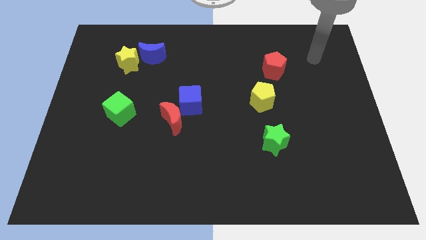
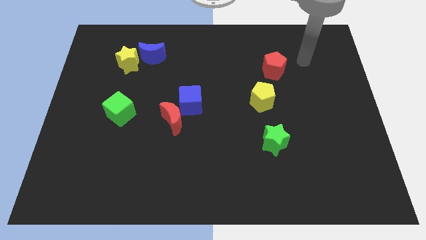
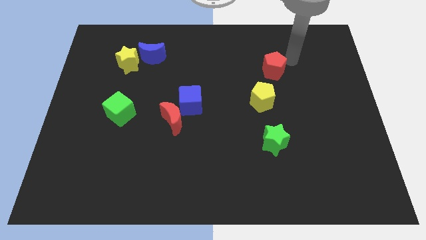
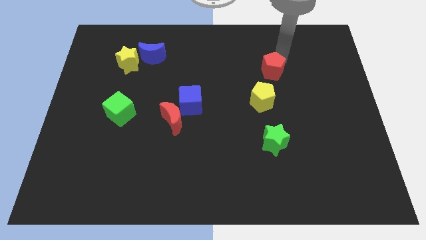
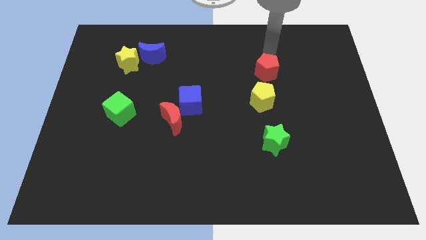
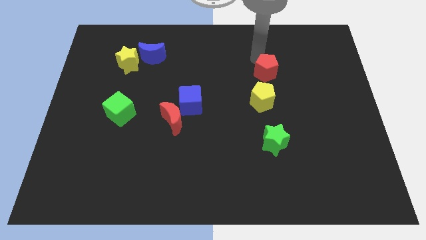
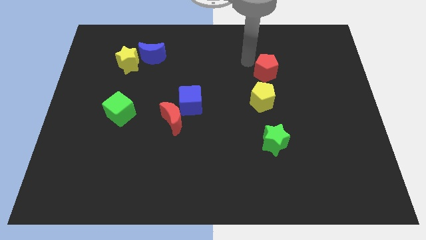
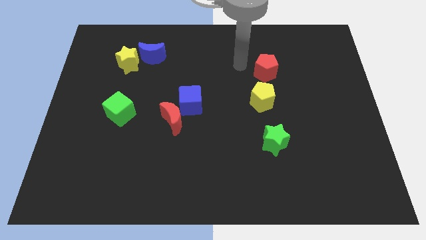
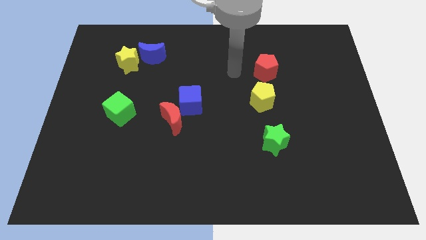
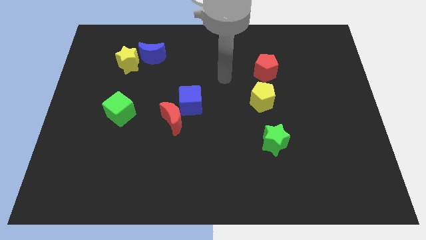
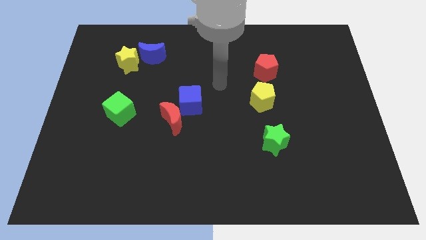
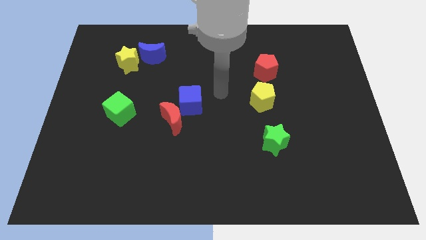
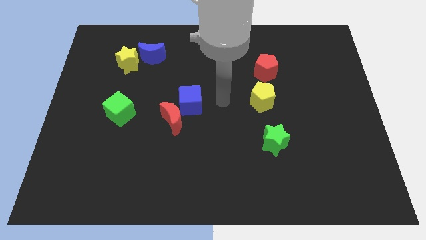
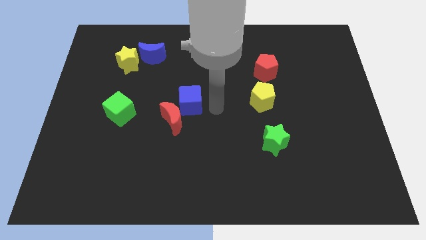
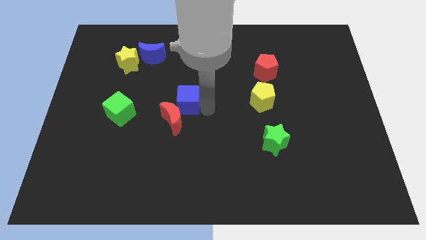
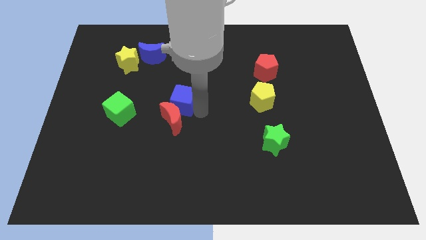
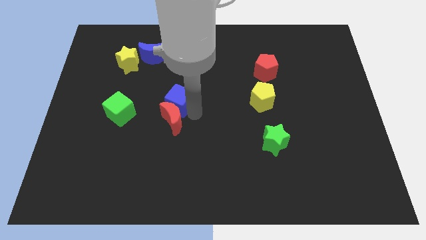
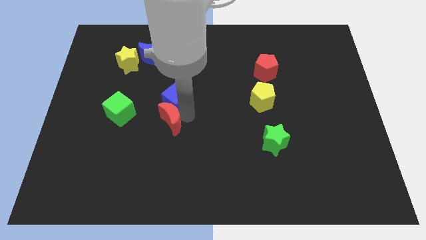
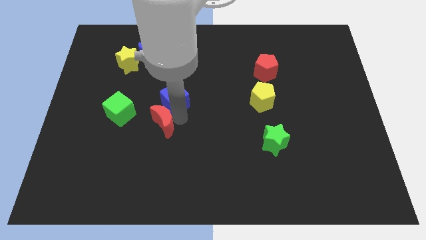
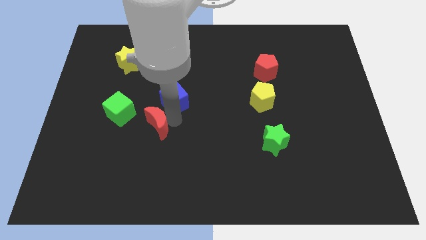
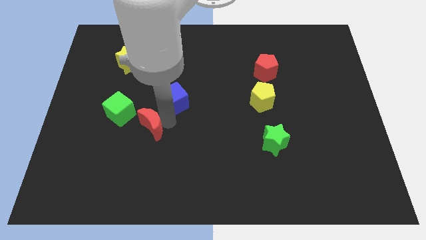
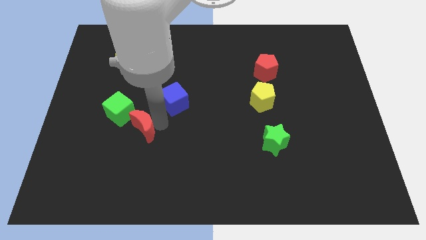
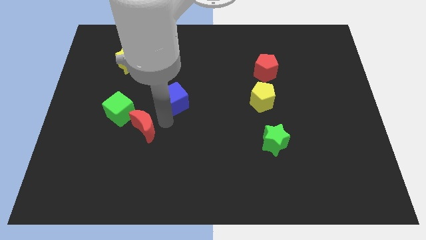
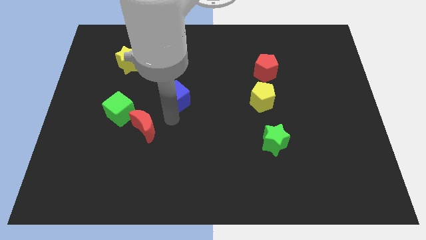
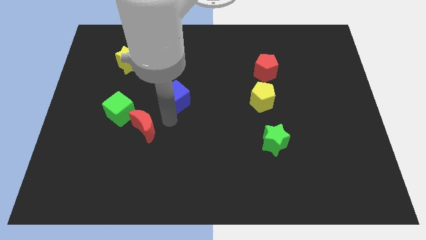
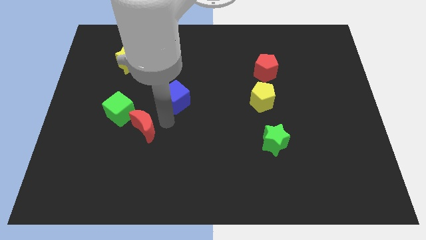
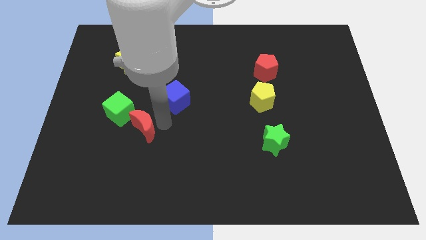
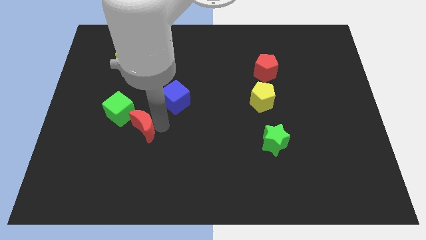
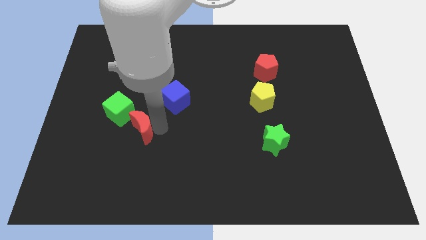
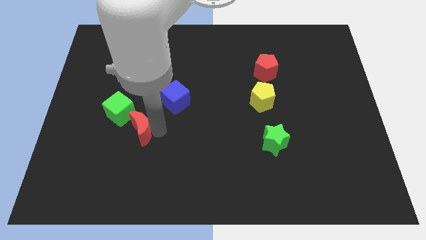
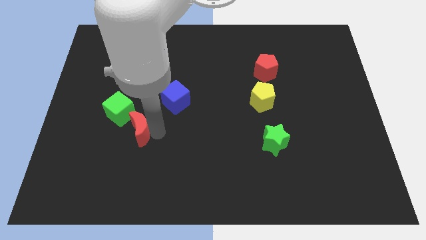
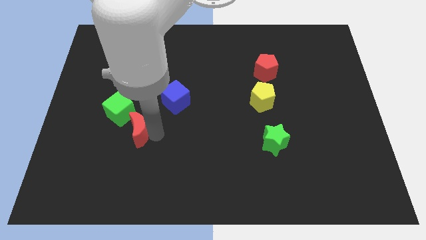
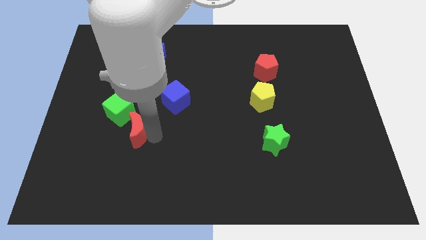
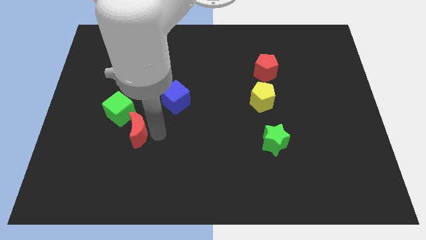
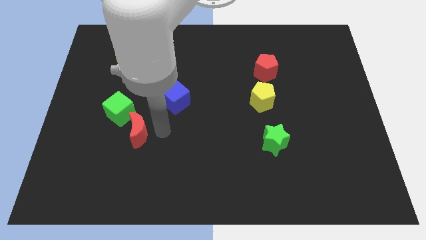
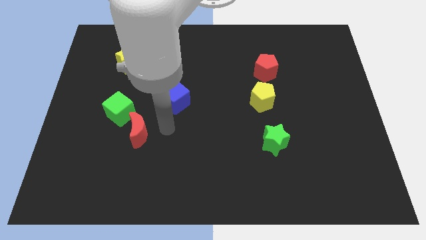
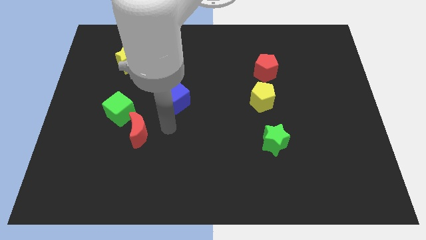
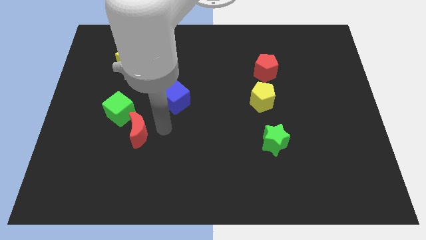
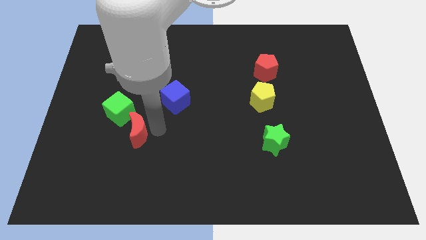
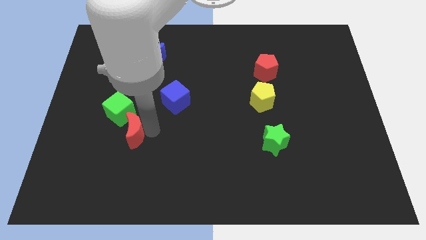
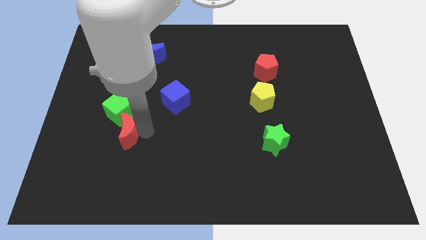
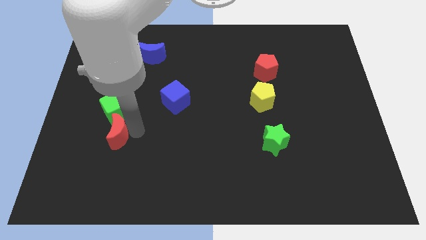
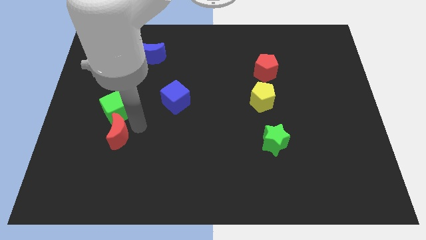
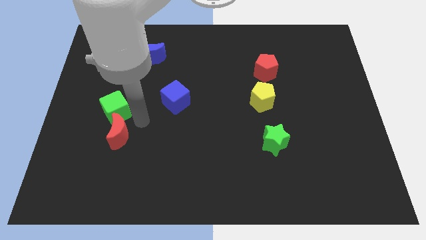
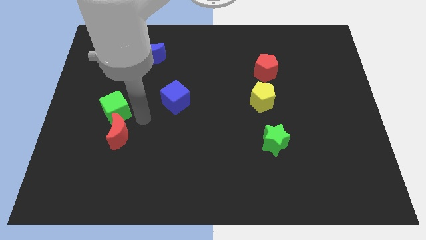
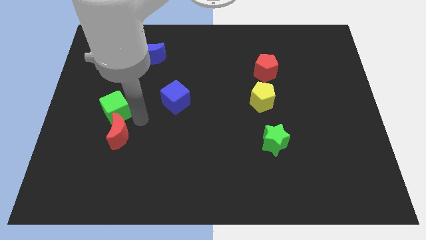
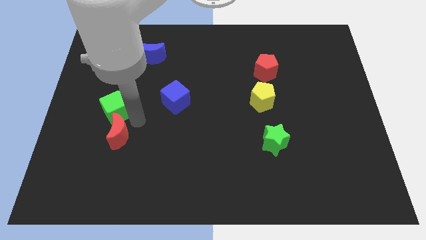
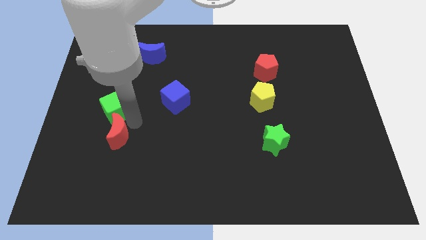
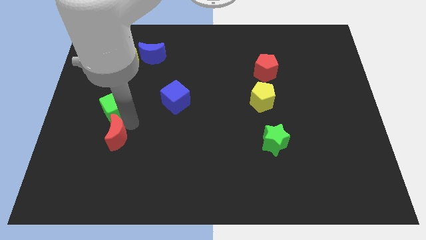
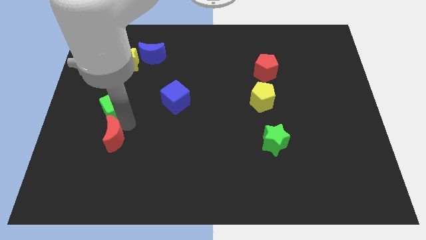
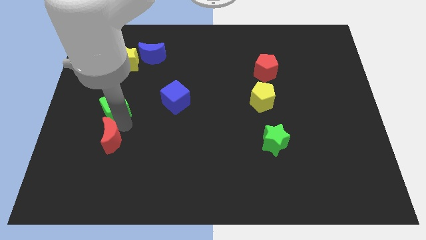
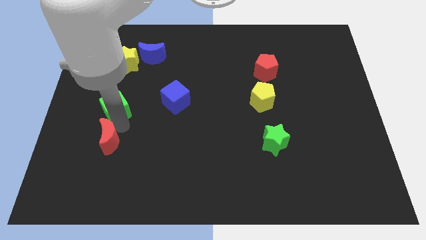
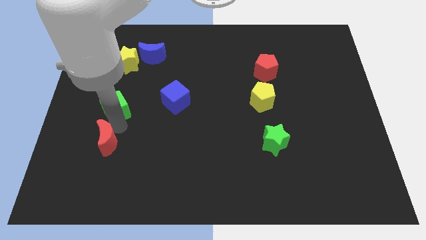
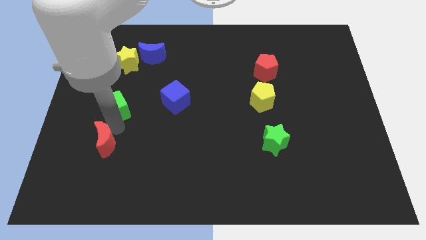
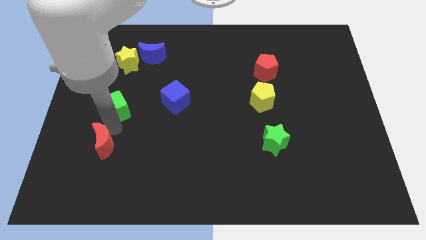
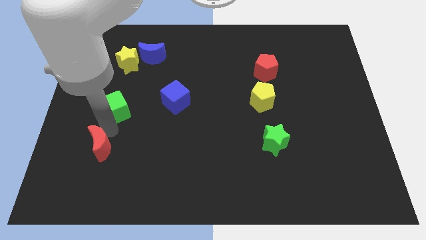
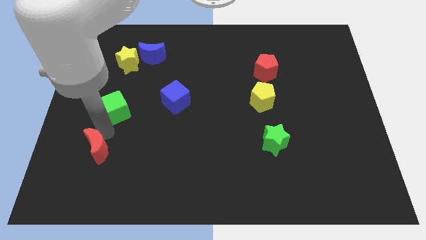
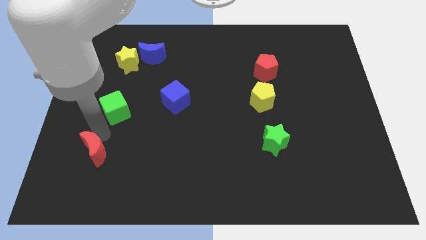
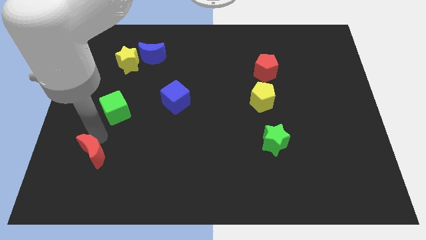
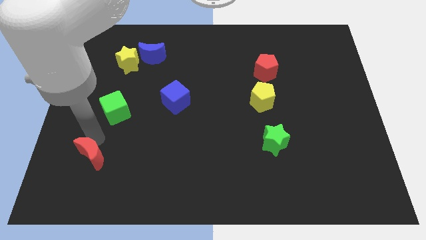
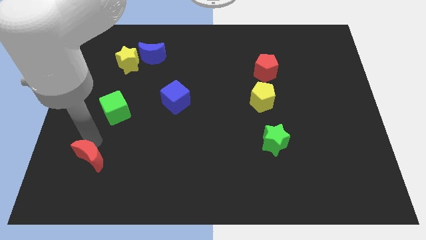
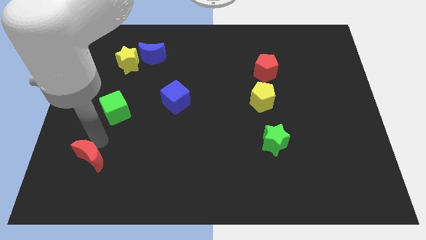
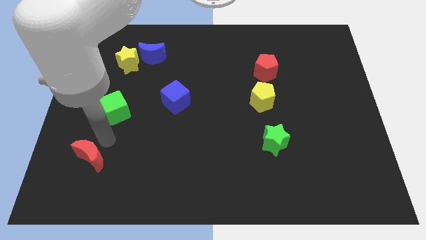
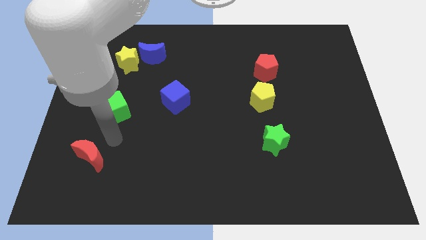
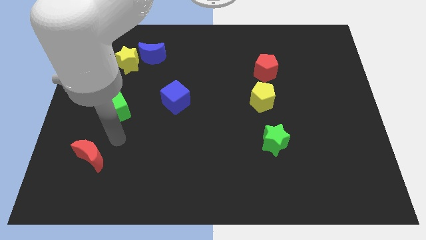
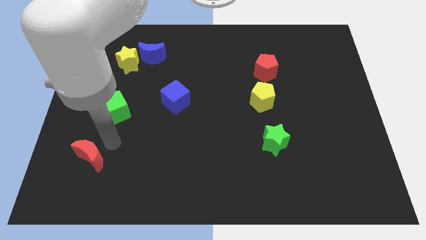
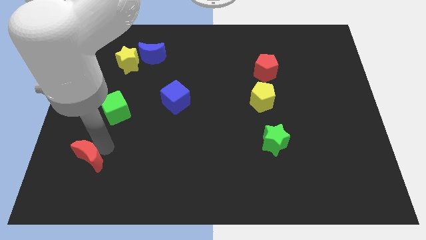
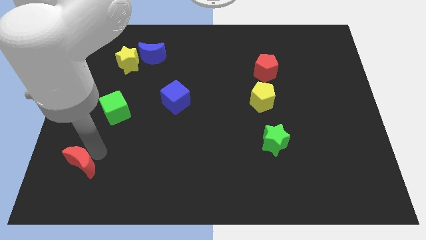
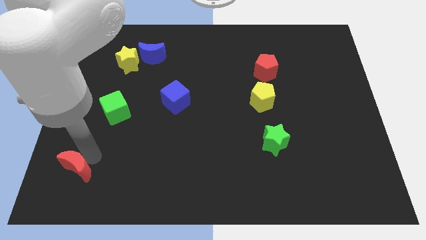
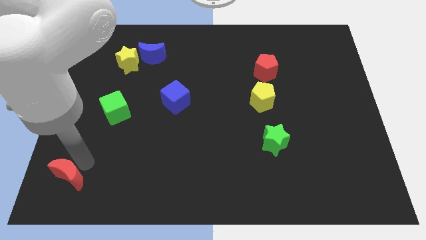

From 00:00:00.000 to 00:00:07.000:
slide the red moon to the bottom left corner
